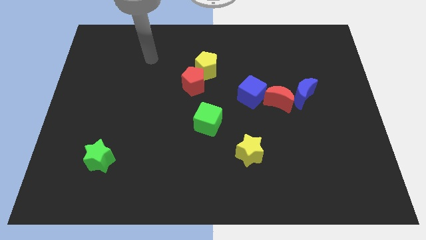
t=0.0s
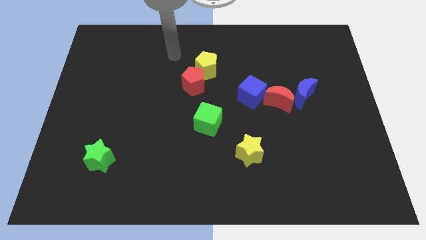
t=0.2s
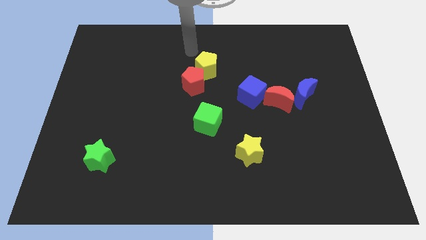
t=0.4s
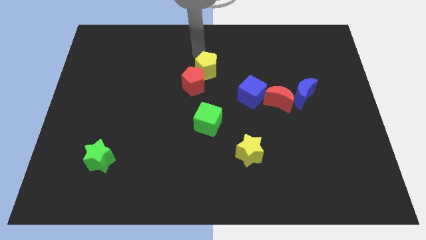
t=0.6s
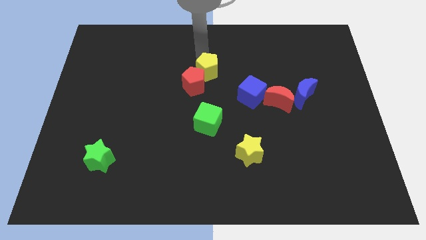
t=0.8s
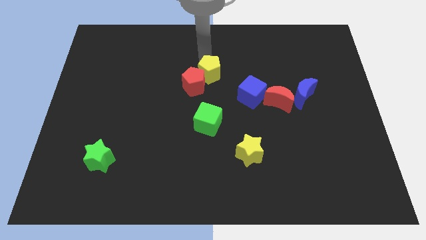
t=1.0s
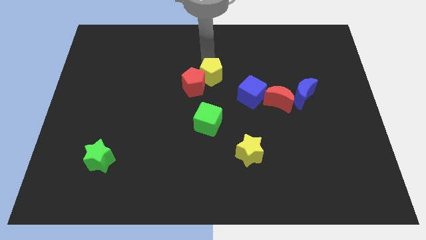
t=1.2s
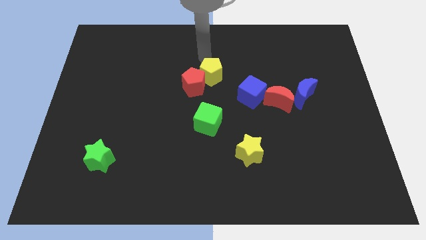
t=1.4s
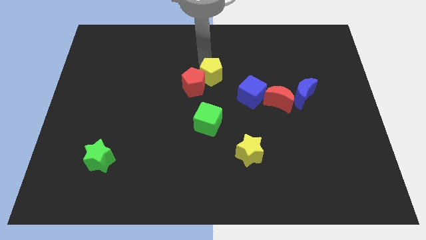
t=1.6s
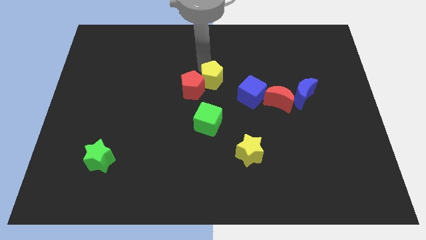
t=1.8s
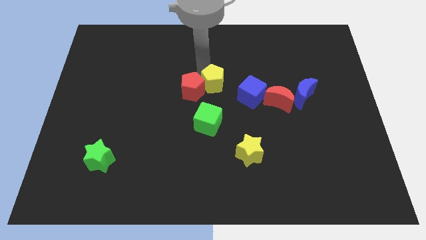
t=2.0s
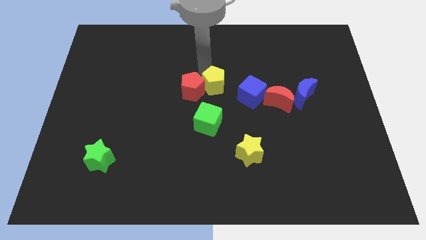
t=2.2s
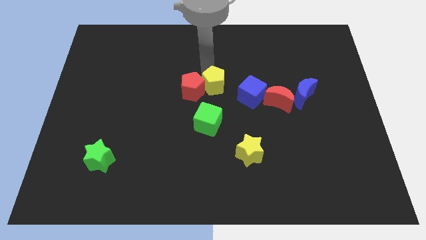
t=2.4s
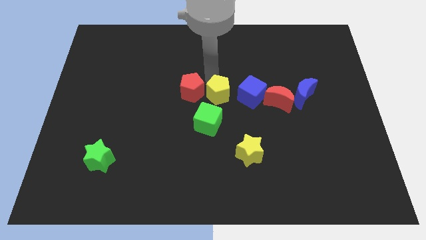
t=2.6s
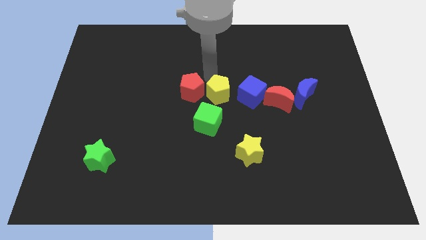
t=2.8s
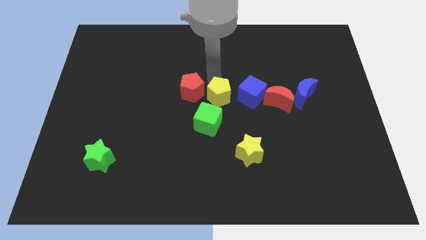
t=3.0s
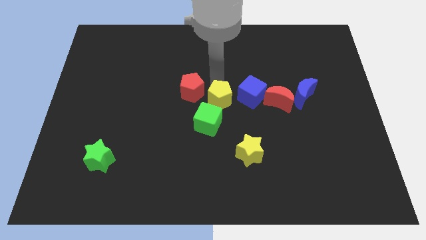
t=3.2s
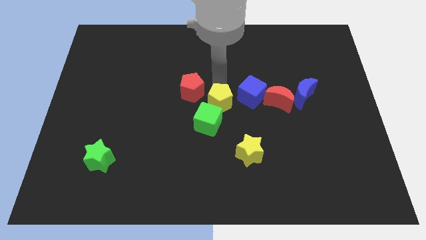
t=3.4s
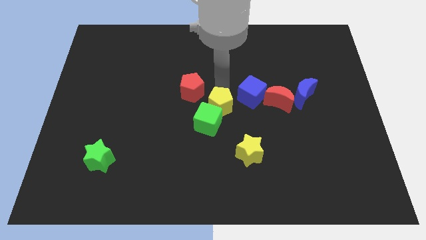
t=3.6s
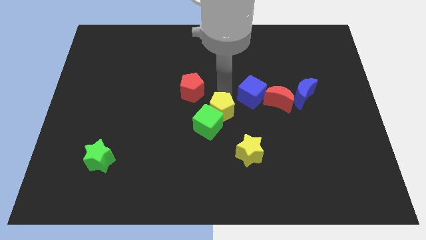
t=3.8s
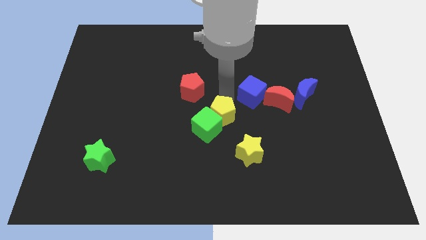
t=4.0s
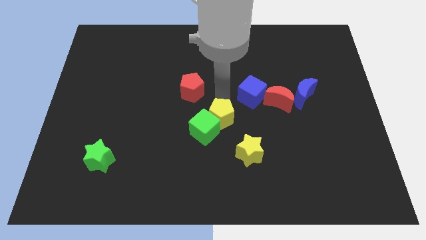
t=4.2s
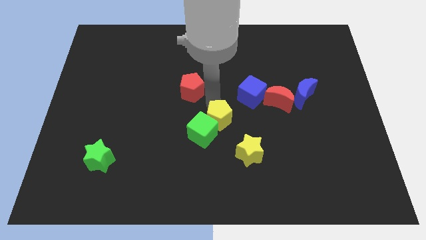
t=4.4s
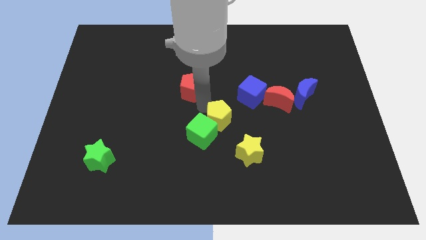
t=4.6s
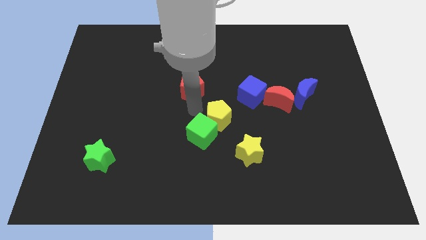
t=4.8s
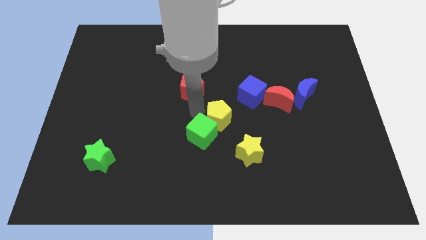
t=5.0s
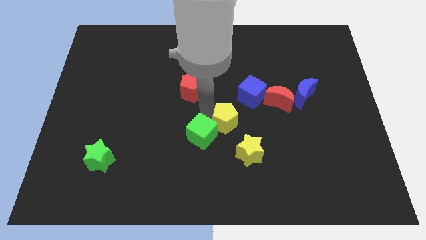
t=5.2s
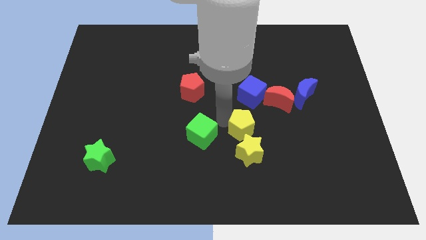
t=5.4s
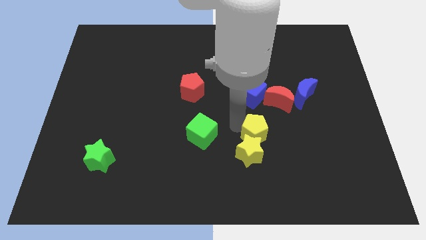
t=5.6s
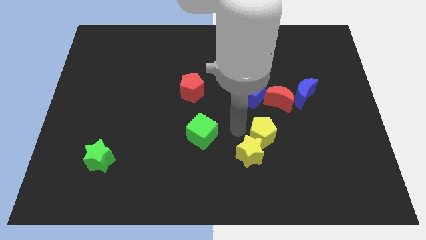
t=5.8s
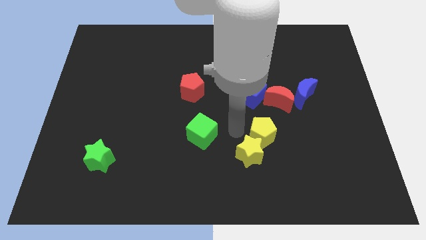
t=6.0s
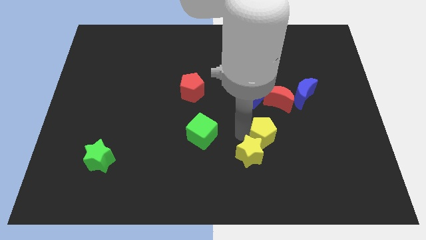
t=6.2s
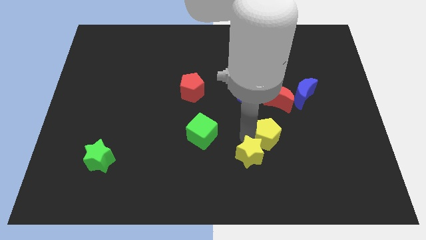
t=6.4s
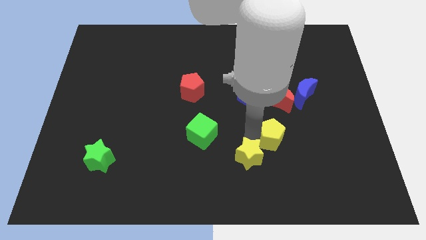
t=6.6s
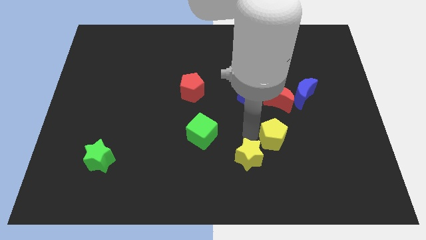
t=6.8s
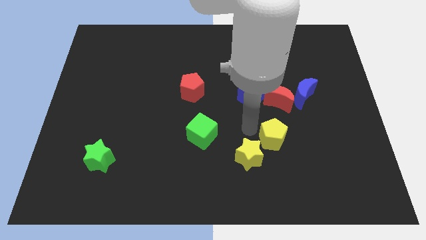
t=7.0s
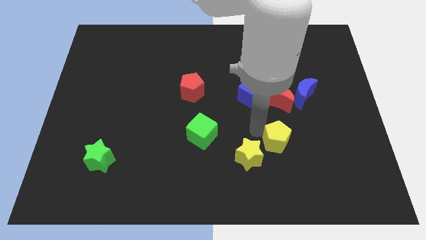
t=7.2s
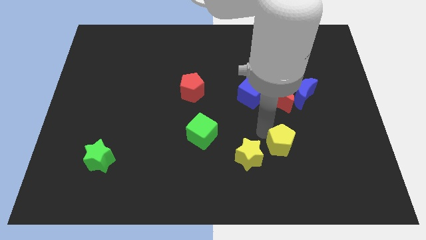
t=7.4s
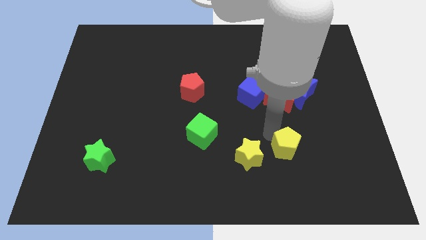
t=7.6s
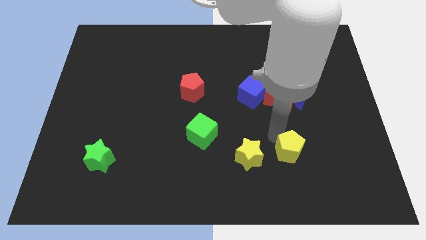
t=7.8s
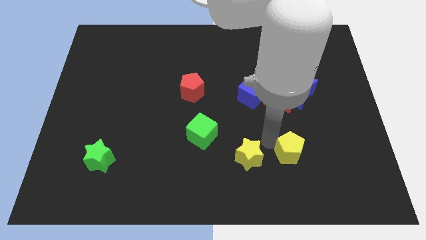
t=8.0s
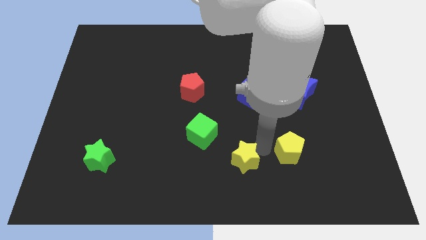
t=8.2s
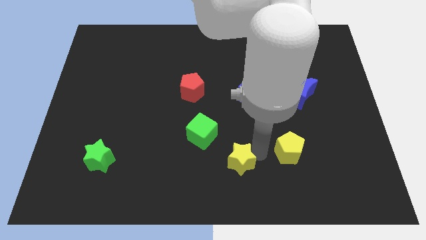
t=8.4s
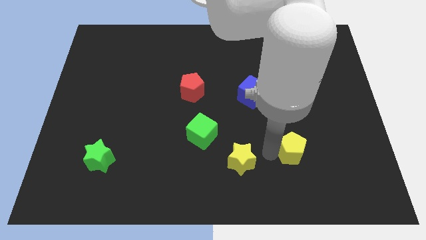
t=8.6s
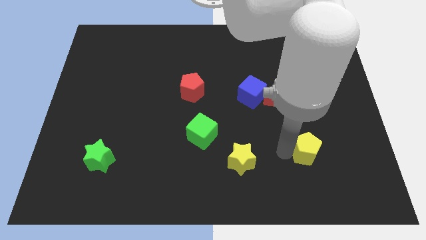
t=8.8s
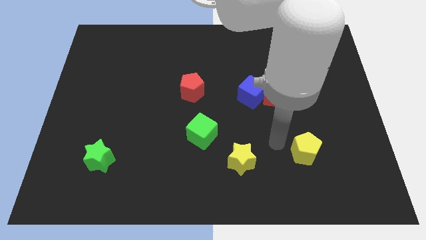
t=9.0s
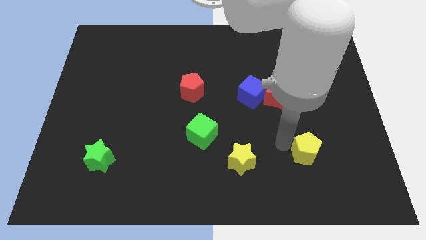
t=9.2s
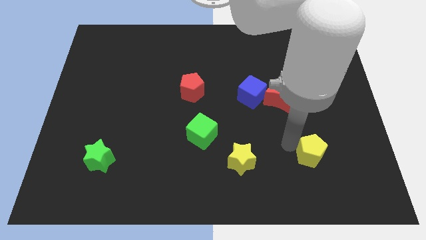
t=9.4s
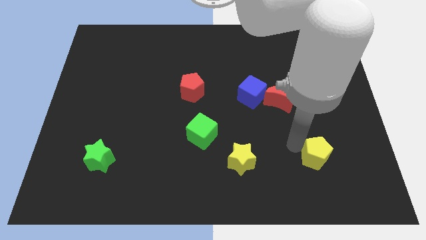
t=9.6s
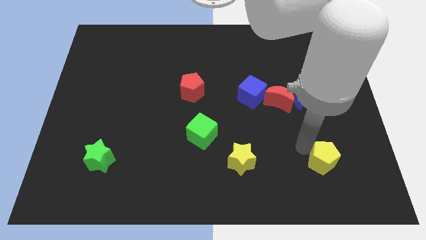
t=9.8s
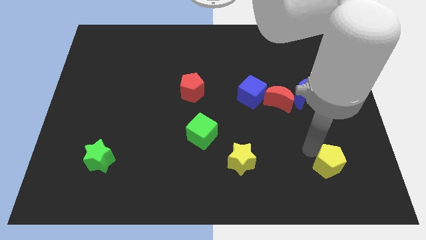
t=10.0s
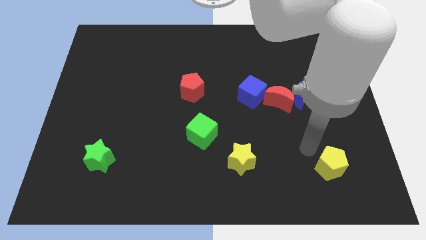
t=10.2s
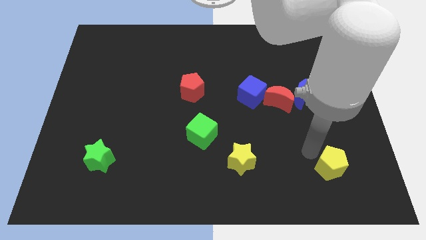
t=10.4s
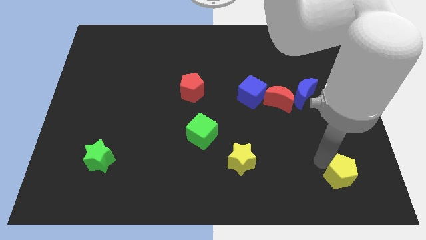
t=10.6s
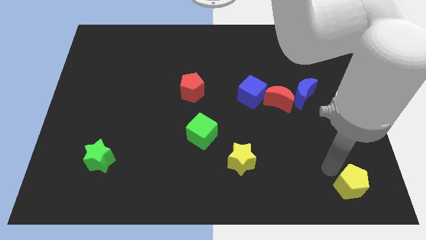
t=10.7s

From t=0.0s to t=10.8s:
push the yellow pentagon to the bottom right

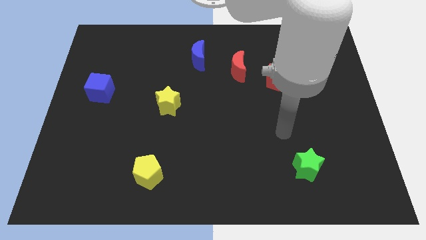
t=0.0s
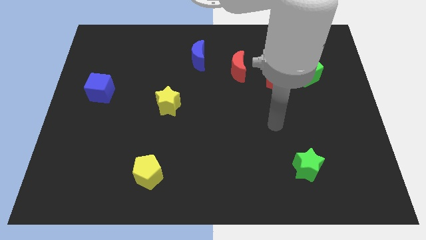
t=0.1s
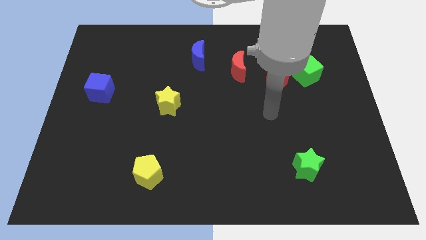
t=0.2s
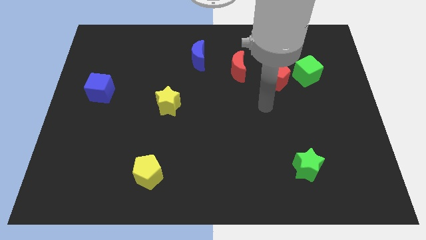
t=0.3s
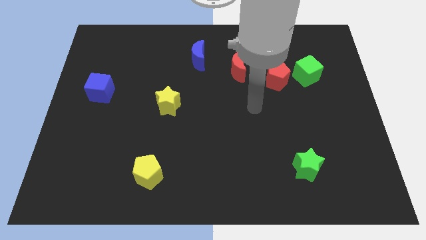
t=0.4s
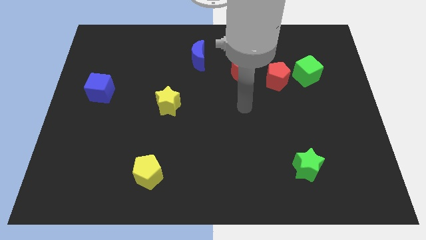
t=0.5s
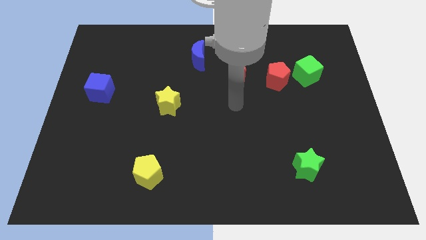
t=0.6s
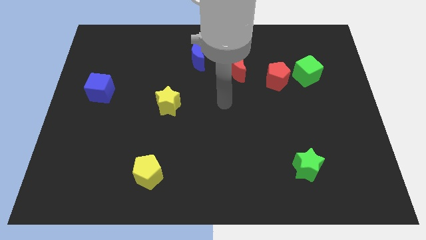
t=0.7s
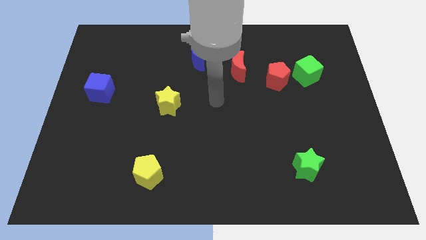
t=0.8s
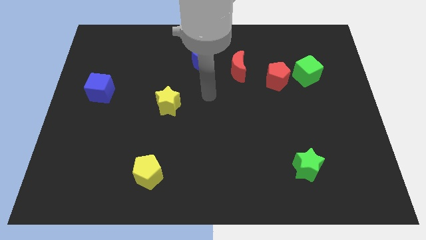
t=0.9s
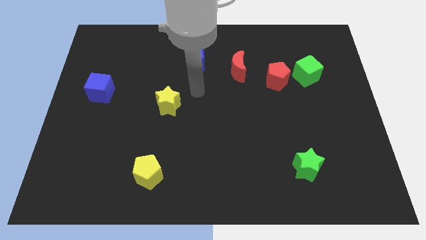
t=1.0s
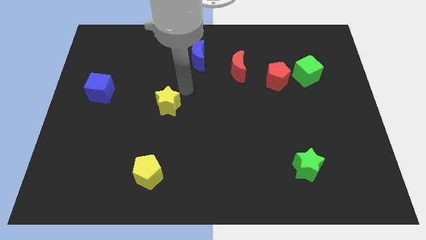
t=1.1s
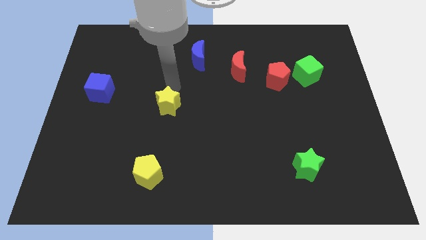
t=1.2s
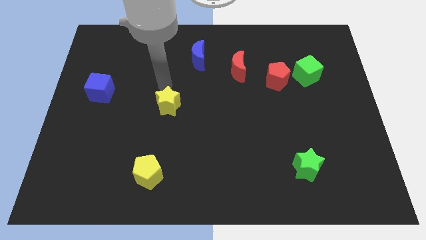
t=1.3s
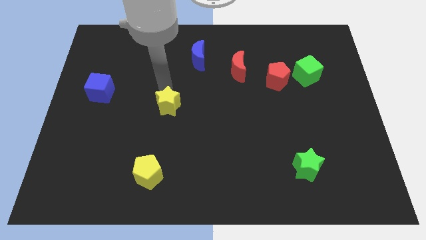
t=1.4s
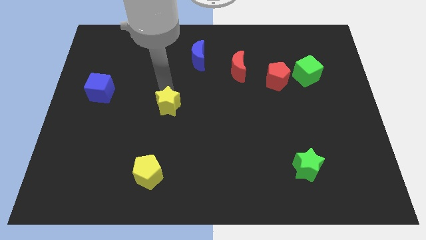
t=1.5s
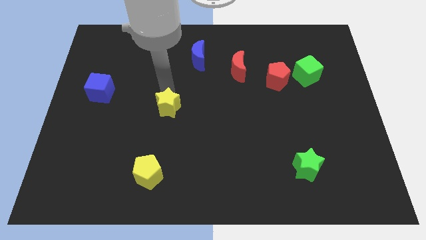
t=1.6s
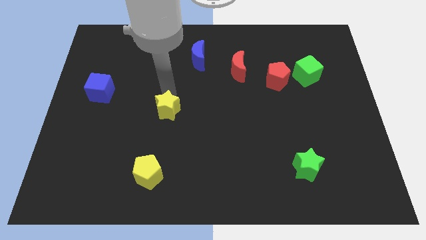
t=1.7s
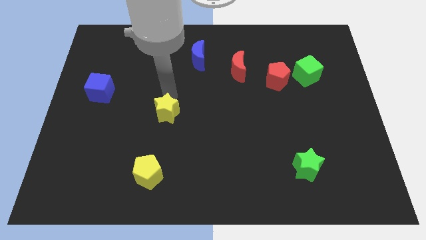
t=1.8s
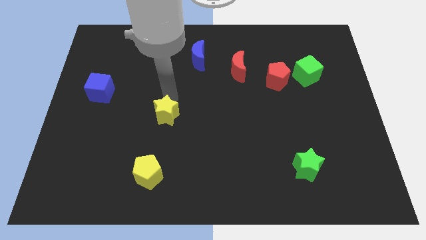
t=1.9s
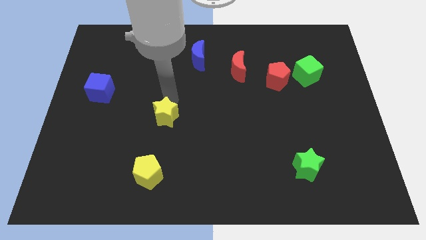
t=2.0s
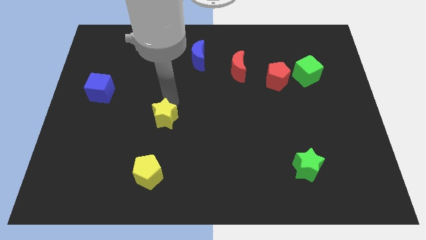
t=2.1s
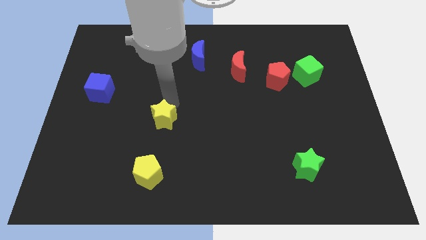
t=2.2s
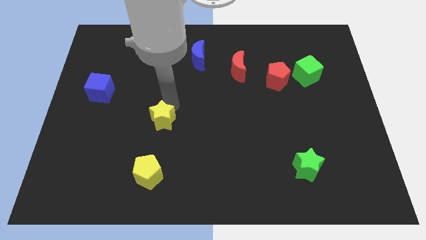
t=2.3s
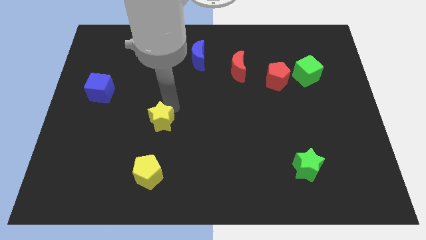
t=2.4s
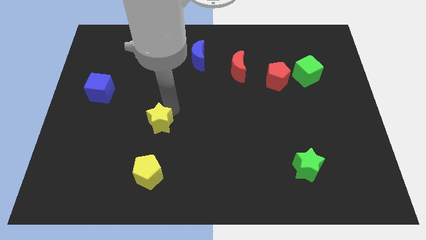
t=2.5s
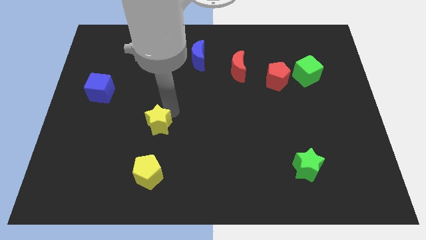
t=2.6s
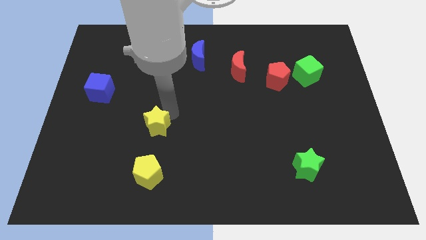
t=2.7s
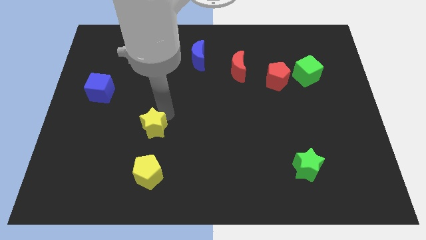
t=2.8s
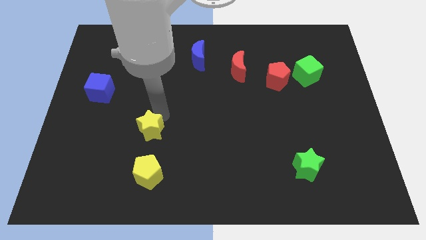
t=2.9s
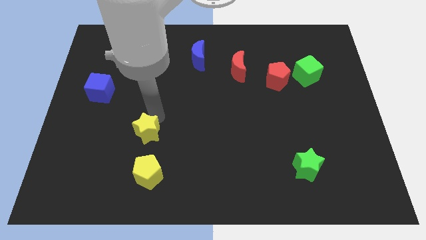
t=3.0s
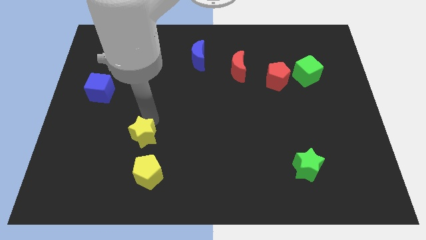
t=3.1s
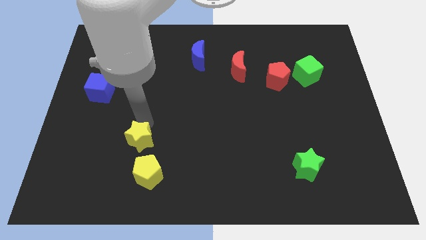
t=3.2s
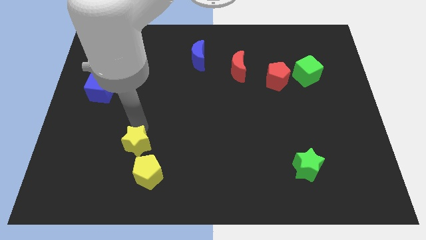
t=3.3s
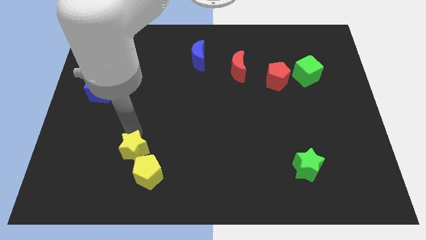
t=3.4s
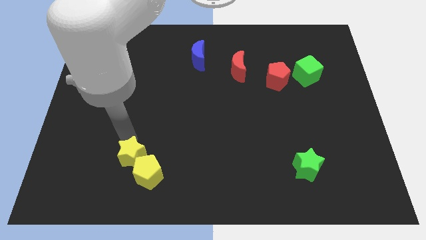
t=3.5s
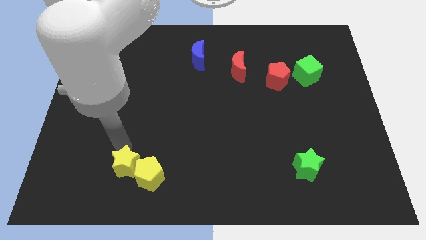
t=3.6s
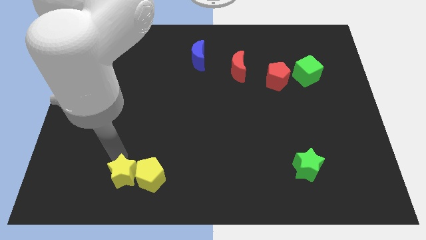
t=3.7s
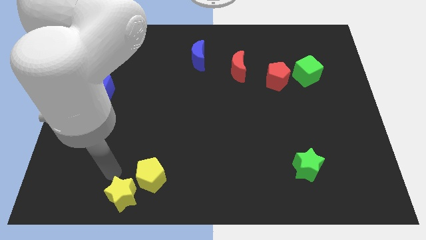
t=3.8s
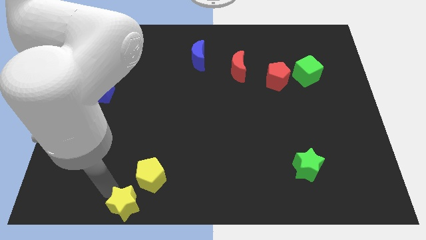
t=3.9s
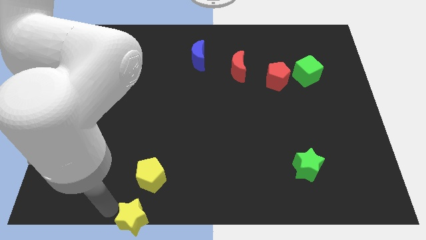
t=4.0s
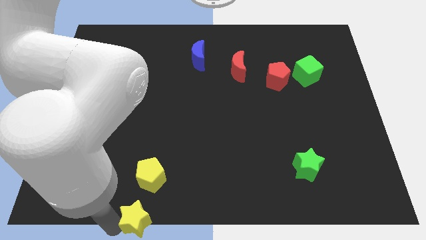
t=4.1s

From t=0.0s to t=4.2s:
move the yellow star to the bottom
